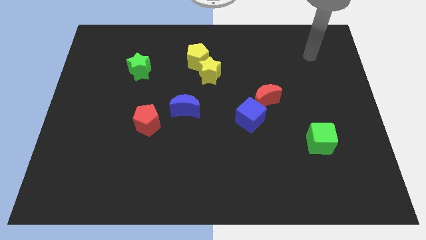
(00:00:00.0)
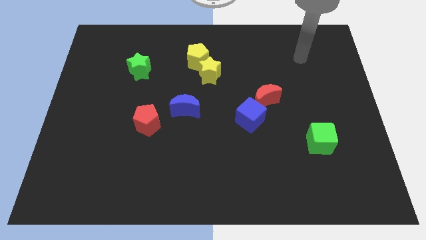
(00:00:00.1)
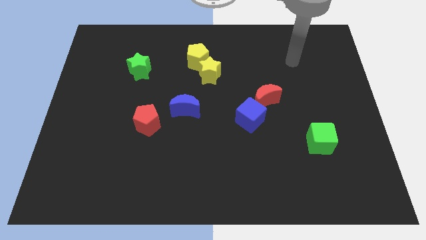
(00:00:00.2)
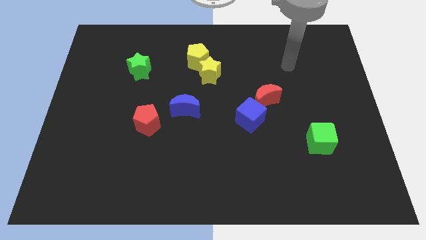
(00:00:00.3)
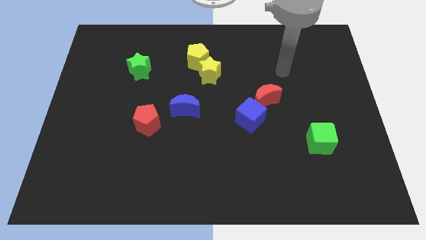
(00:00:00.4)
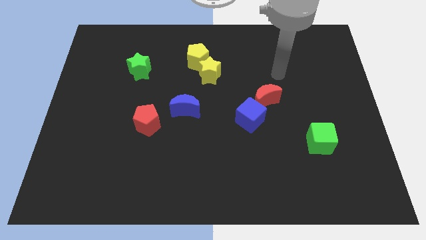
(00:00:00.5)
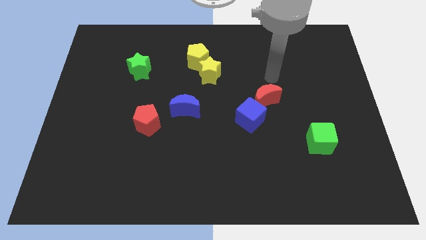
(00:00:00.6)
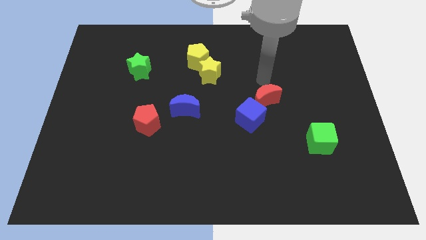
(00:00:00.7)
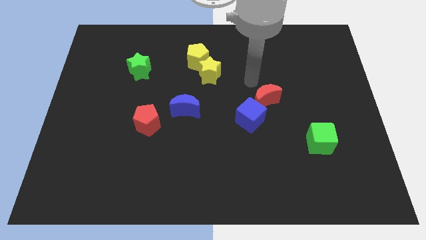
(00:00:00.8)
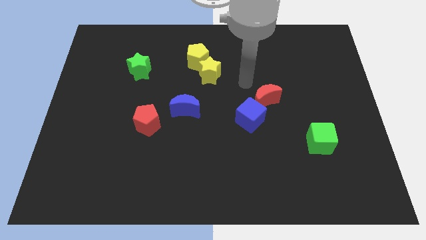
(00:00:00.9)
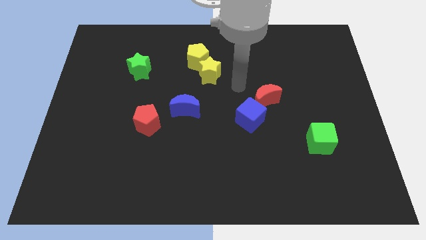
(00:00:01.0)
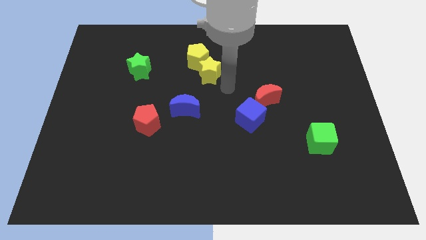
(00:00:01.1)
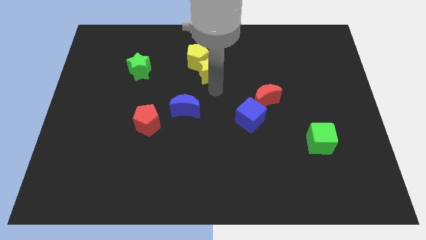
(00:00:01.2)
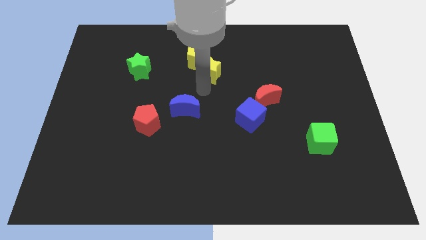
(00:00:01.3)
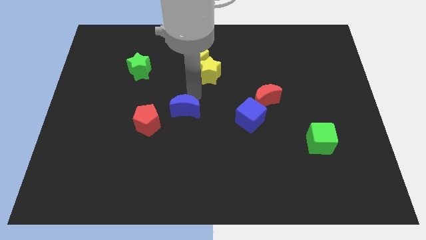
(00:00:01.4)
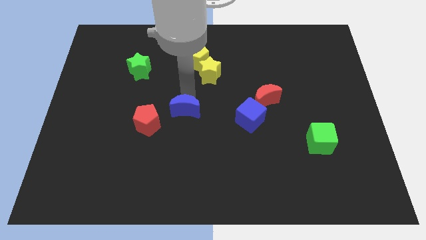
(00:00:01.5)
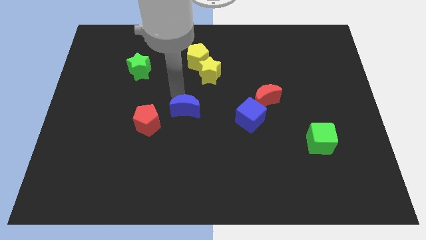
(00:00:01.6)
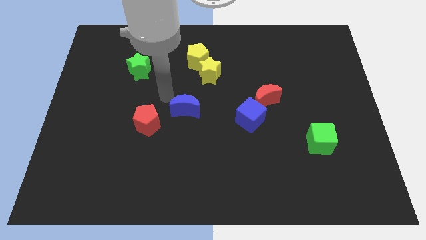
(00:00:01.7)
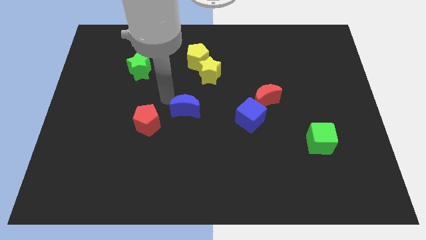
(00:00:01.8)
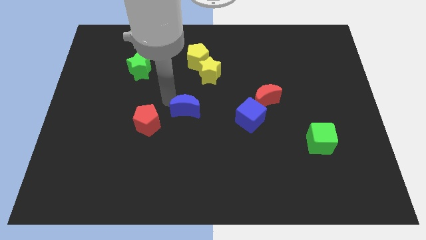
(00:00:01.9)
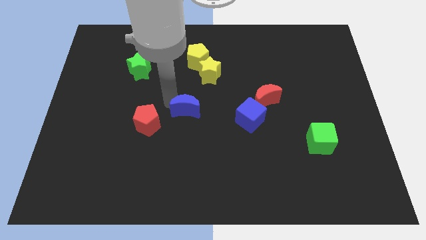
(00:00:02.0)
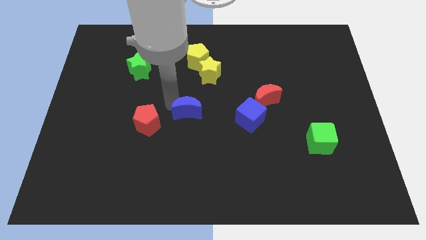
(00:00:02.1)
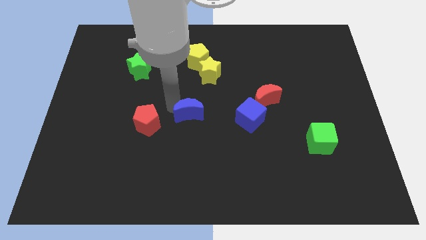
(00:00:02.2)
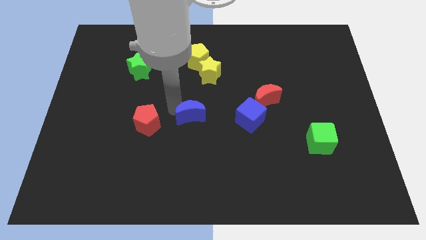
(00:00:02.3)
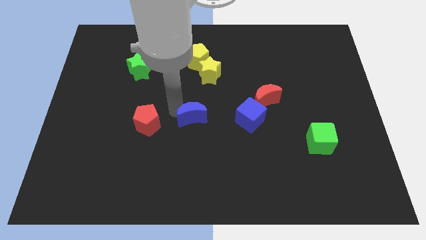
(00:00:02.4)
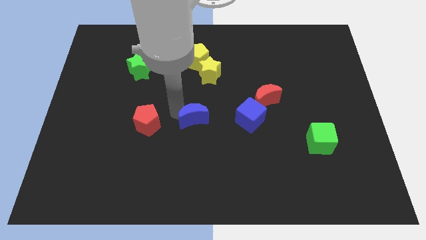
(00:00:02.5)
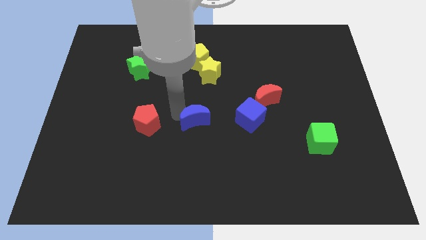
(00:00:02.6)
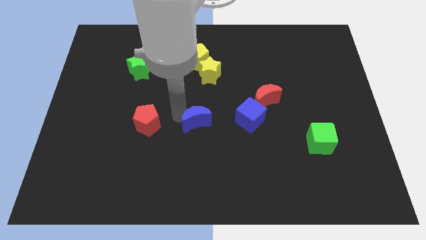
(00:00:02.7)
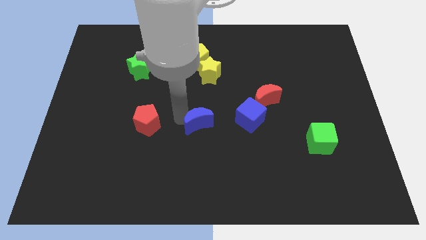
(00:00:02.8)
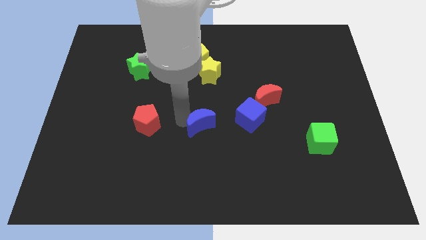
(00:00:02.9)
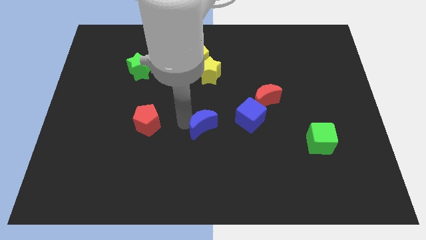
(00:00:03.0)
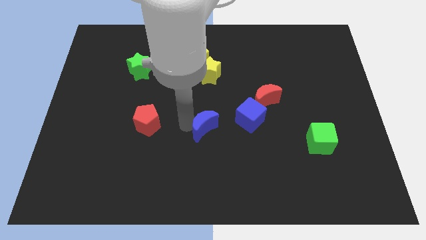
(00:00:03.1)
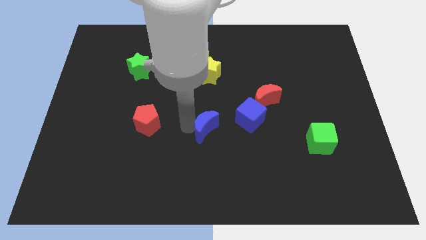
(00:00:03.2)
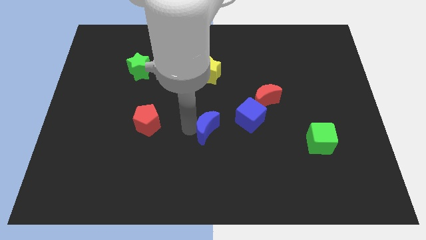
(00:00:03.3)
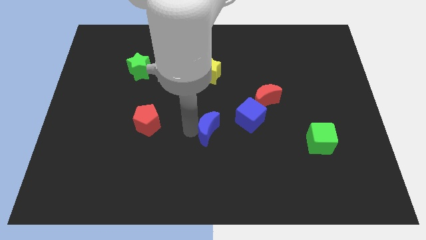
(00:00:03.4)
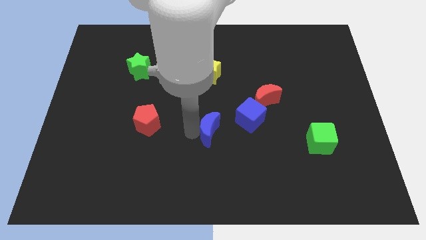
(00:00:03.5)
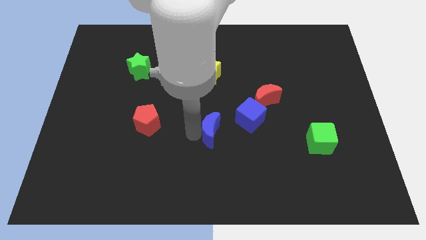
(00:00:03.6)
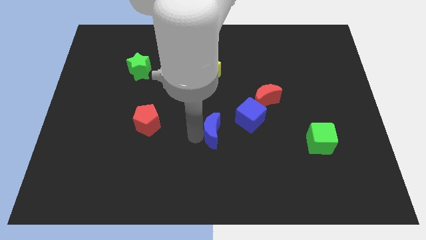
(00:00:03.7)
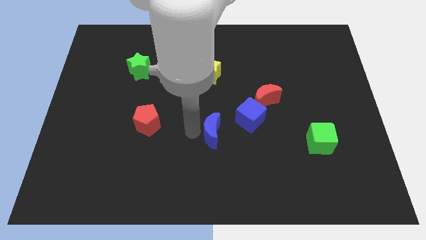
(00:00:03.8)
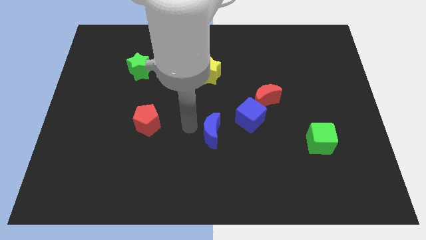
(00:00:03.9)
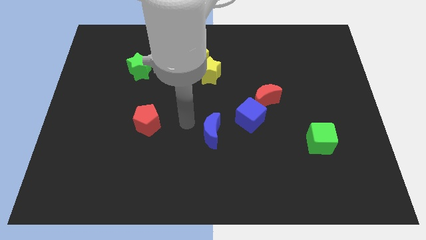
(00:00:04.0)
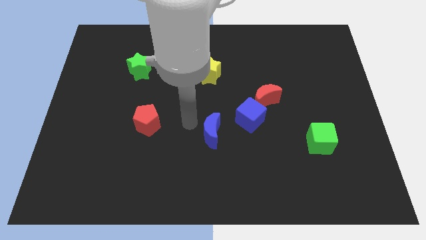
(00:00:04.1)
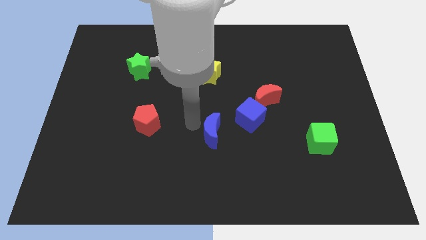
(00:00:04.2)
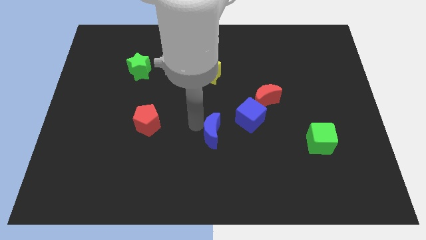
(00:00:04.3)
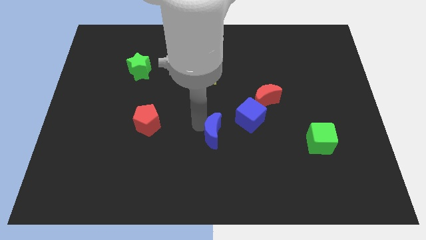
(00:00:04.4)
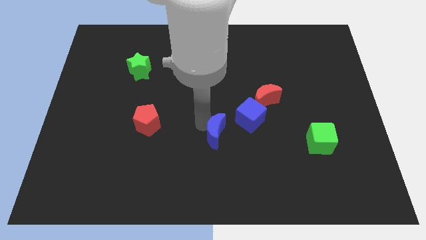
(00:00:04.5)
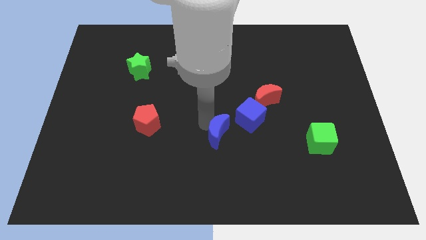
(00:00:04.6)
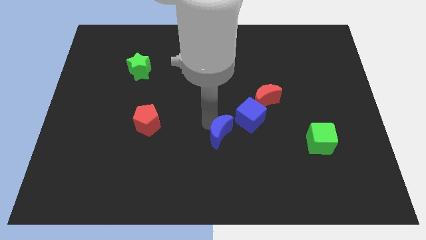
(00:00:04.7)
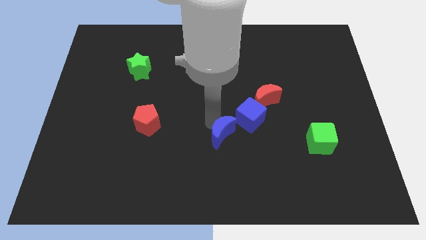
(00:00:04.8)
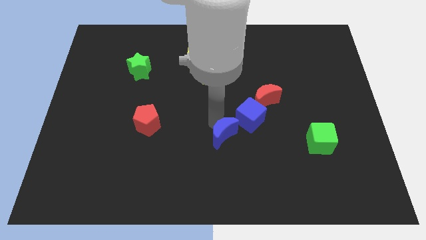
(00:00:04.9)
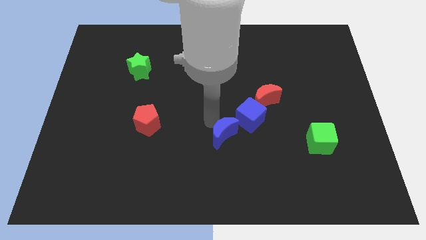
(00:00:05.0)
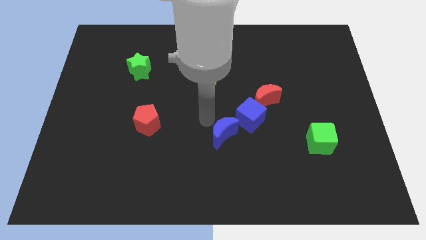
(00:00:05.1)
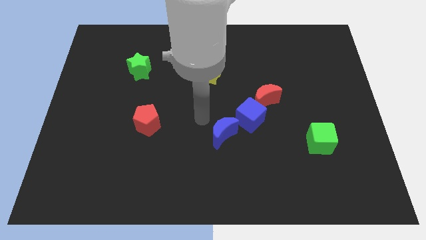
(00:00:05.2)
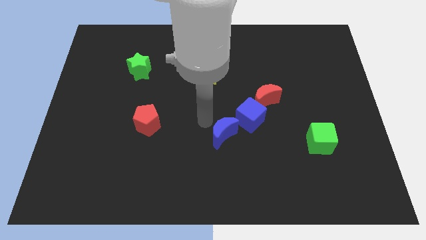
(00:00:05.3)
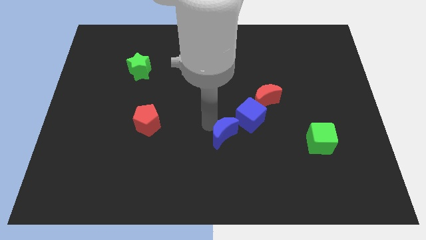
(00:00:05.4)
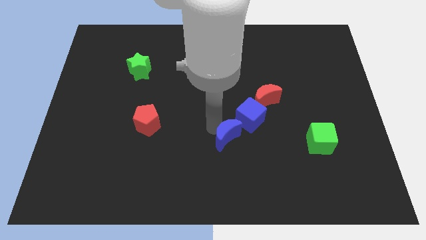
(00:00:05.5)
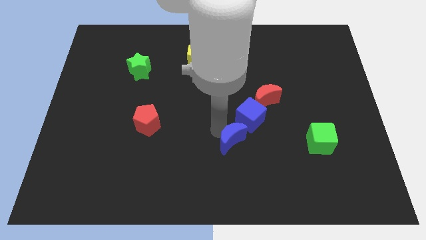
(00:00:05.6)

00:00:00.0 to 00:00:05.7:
put the blue moon to the bottom of the blue cube

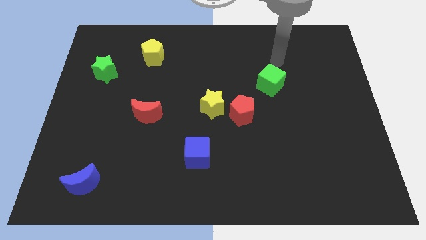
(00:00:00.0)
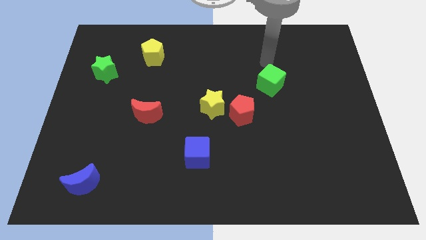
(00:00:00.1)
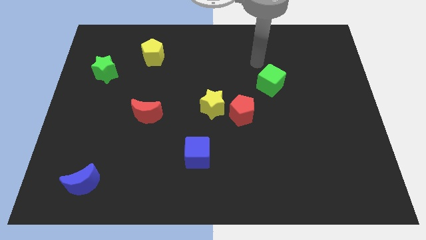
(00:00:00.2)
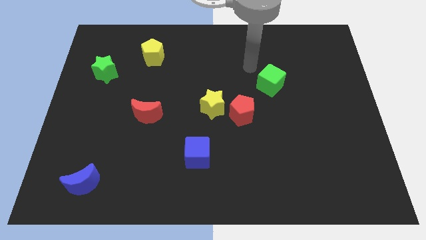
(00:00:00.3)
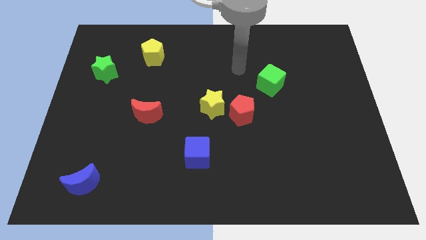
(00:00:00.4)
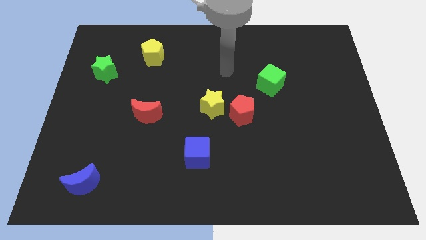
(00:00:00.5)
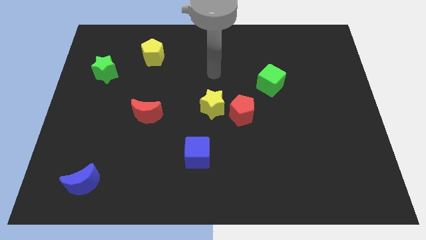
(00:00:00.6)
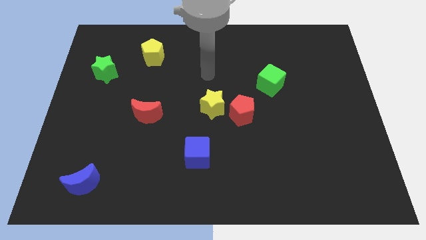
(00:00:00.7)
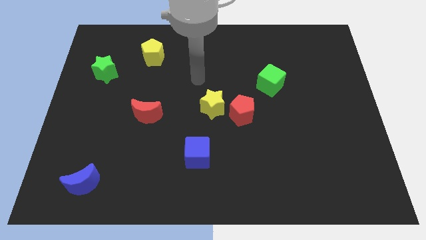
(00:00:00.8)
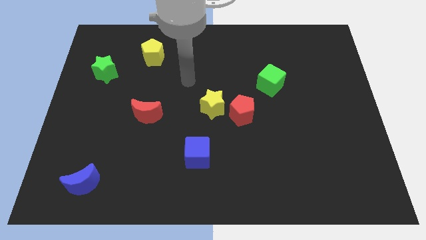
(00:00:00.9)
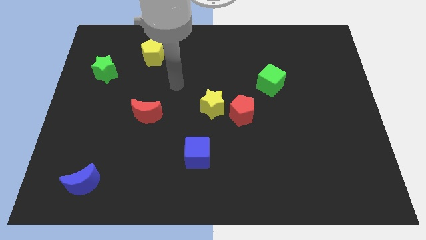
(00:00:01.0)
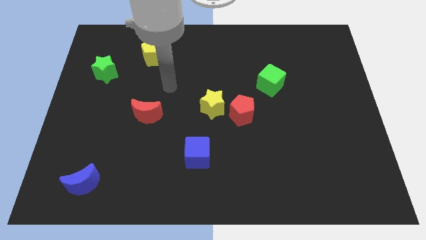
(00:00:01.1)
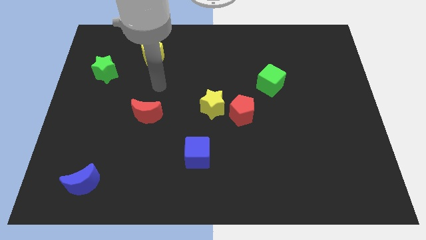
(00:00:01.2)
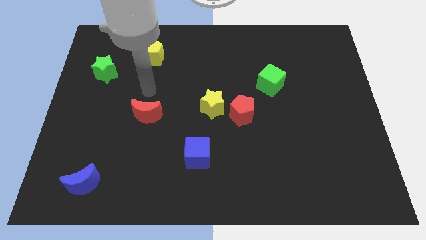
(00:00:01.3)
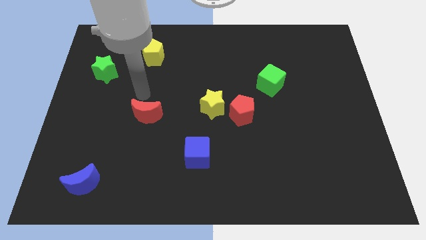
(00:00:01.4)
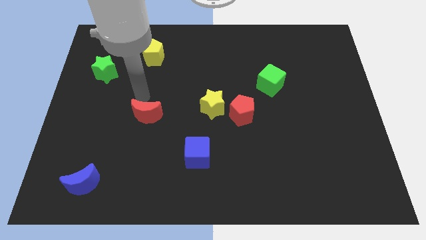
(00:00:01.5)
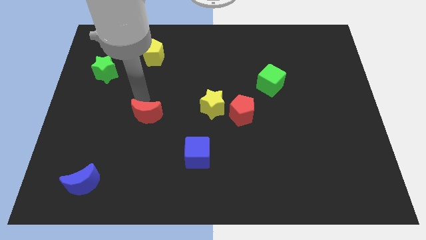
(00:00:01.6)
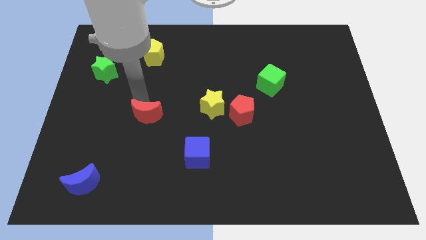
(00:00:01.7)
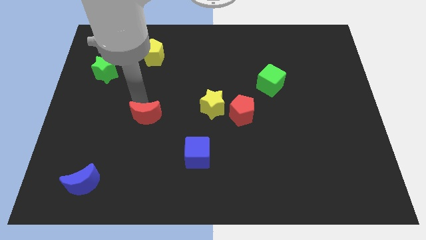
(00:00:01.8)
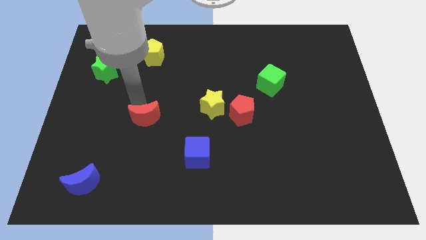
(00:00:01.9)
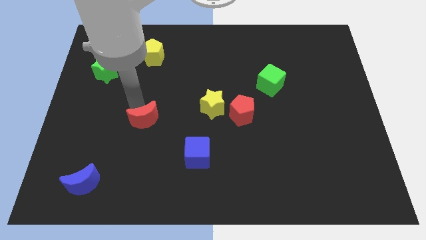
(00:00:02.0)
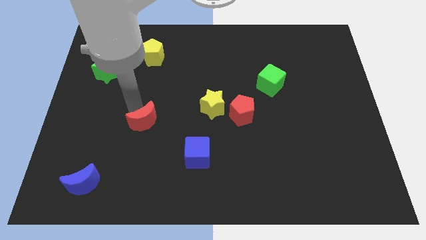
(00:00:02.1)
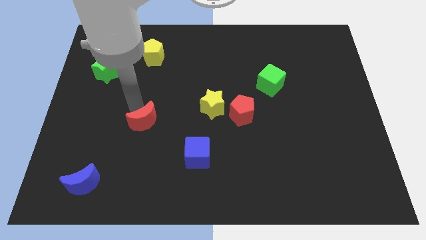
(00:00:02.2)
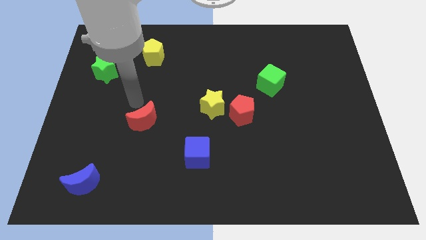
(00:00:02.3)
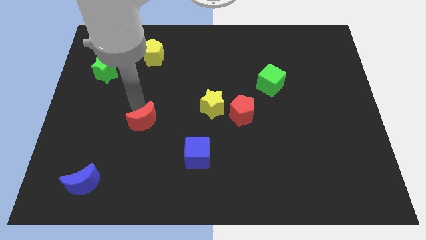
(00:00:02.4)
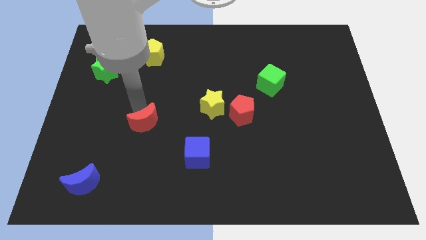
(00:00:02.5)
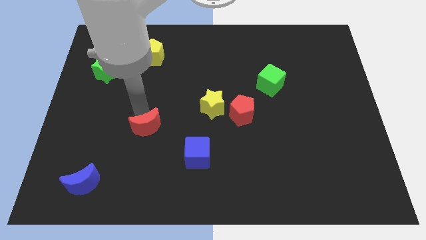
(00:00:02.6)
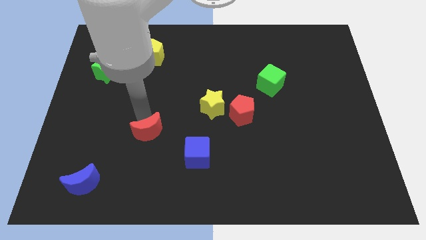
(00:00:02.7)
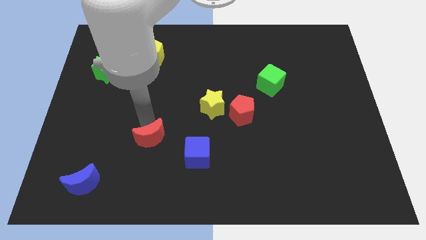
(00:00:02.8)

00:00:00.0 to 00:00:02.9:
put the red moon to the left of the blue cube
